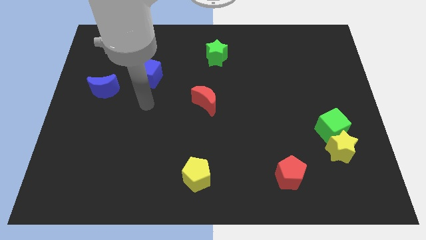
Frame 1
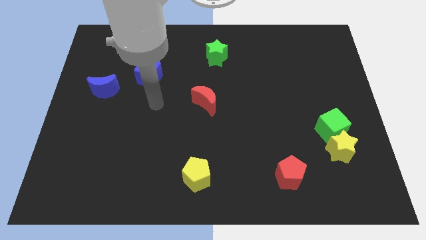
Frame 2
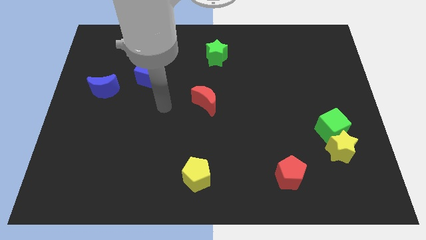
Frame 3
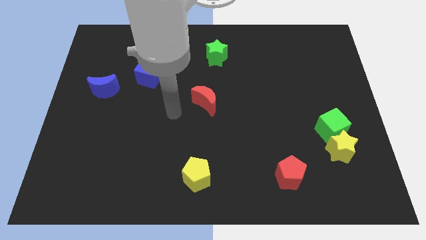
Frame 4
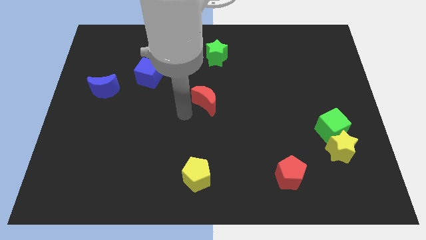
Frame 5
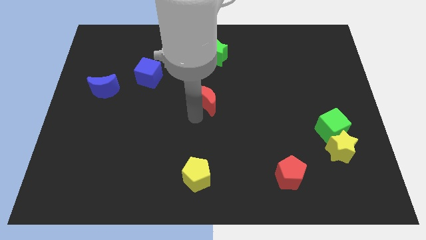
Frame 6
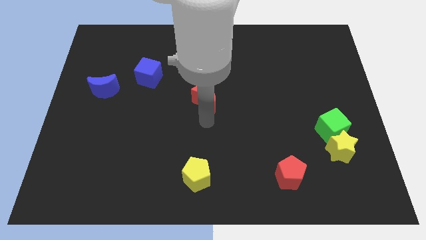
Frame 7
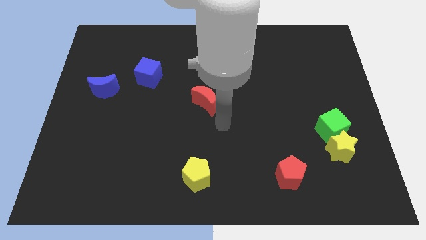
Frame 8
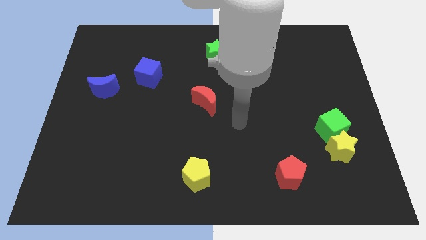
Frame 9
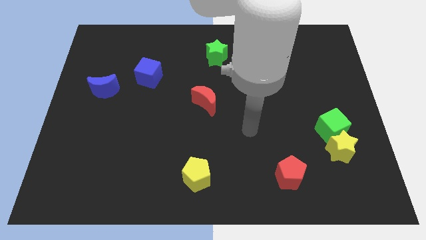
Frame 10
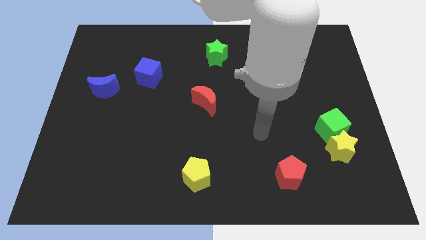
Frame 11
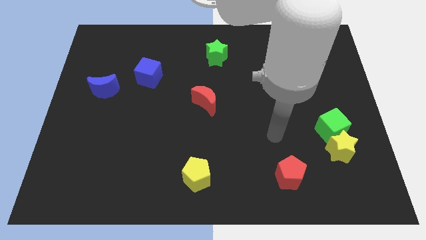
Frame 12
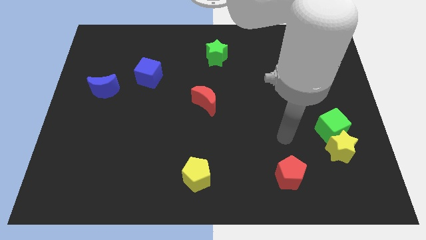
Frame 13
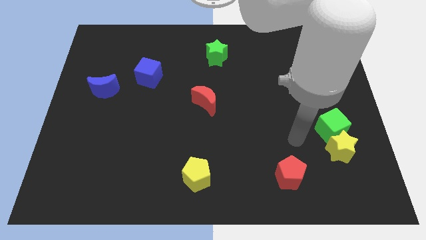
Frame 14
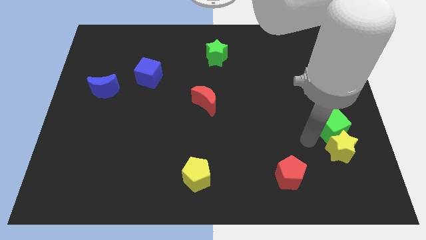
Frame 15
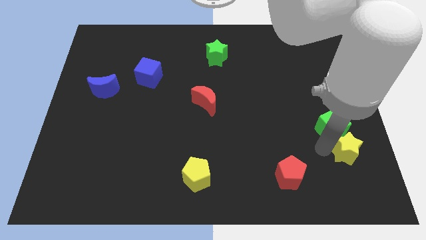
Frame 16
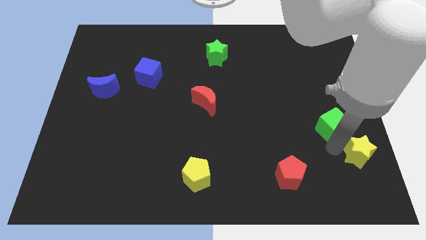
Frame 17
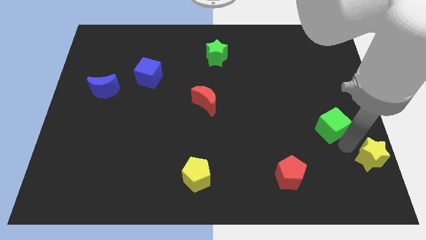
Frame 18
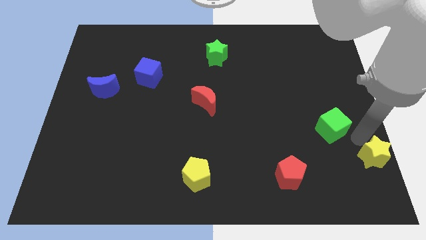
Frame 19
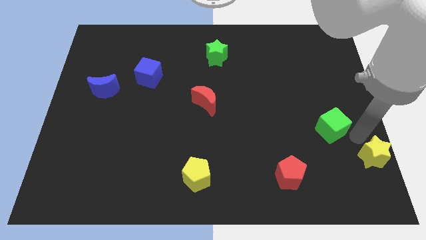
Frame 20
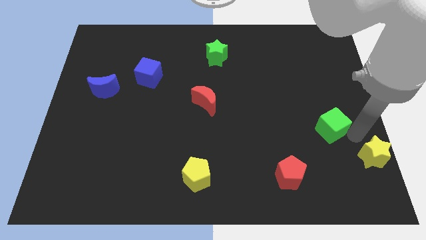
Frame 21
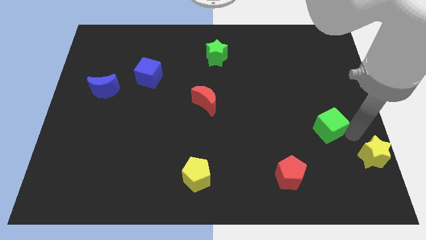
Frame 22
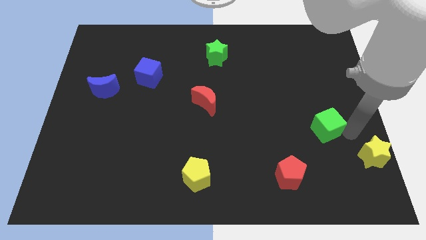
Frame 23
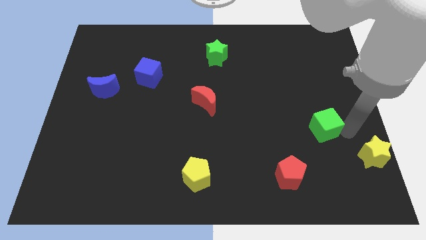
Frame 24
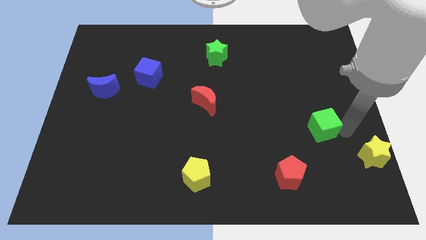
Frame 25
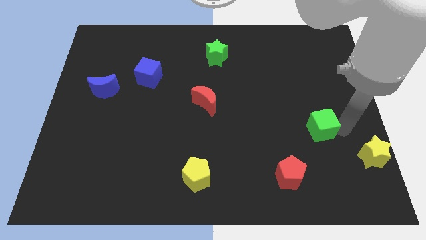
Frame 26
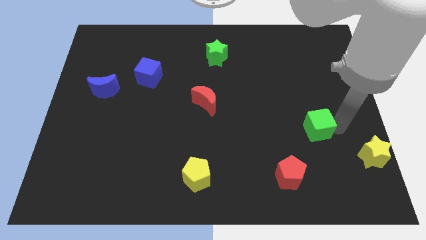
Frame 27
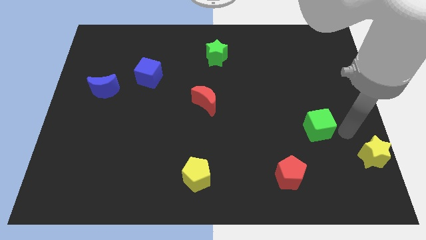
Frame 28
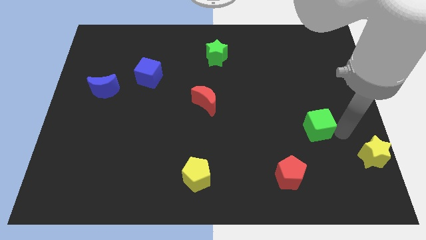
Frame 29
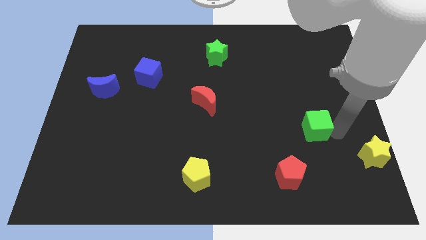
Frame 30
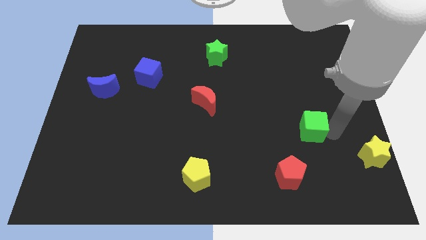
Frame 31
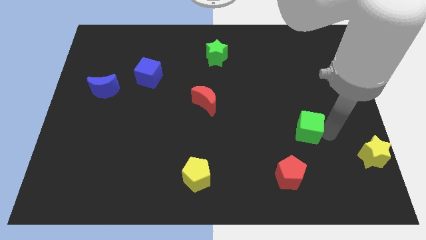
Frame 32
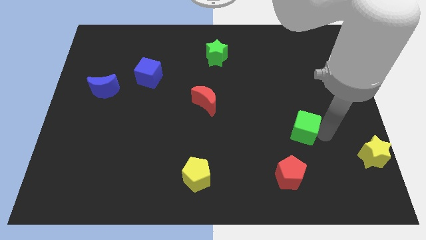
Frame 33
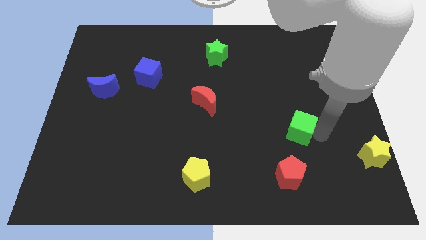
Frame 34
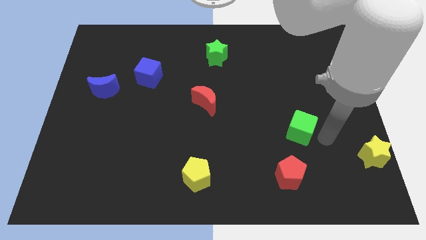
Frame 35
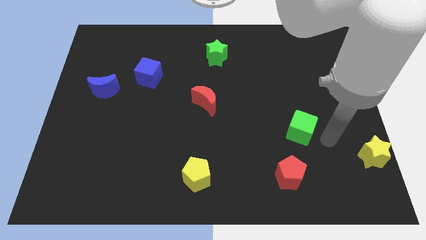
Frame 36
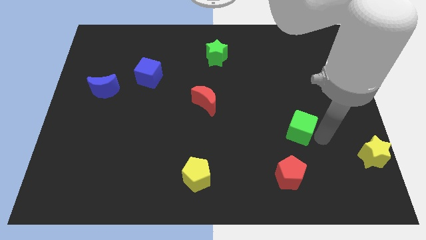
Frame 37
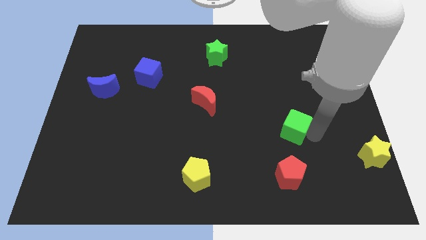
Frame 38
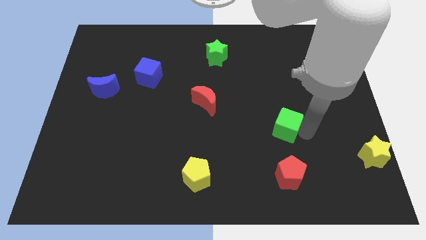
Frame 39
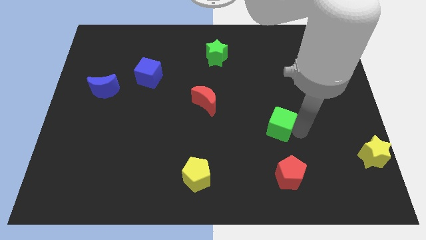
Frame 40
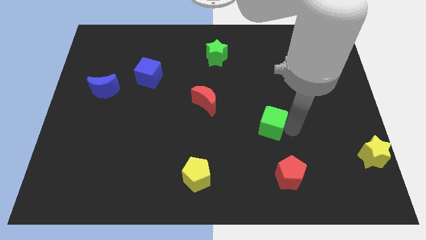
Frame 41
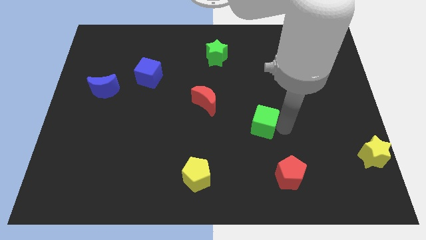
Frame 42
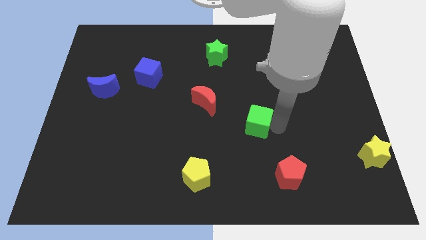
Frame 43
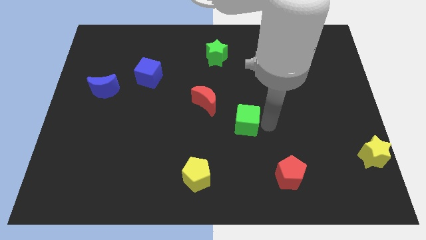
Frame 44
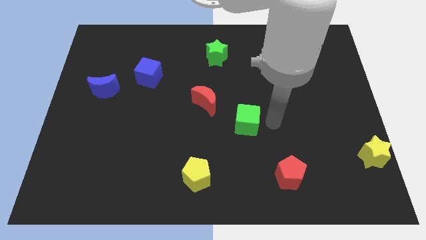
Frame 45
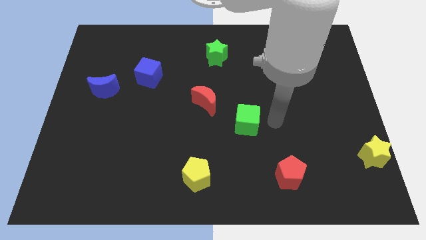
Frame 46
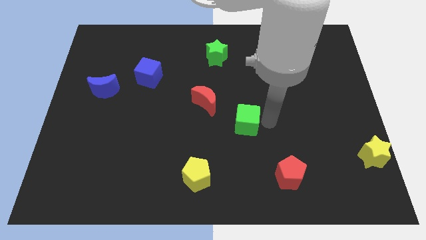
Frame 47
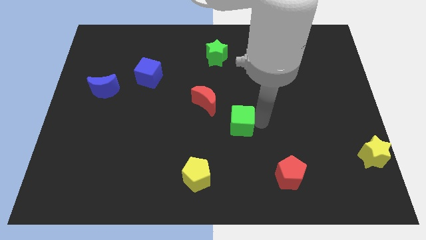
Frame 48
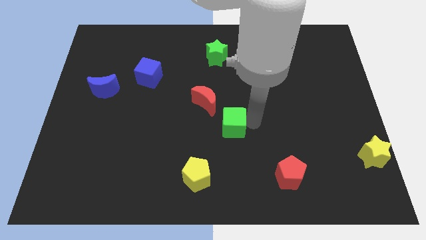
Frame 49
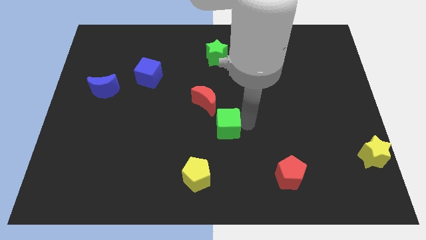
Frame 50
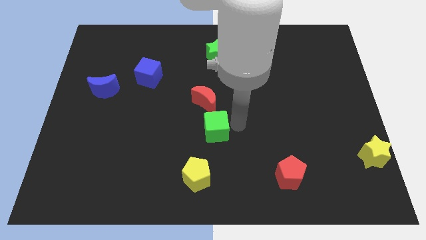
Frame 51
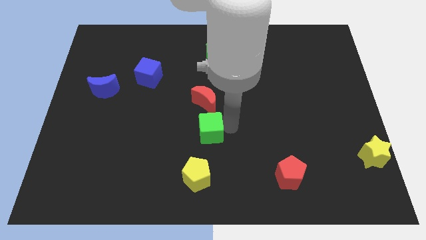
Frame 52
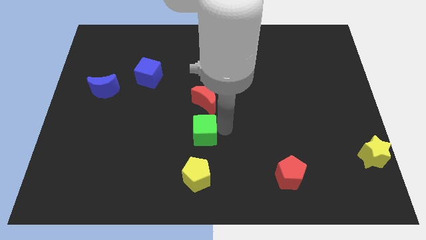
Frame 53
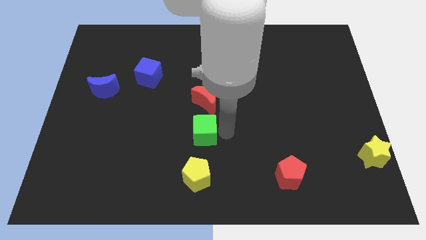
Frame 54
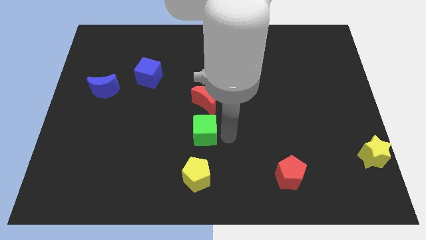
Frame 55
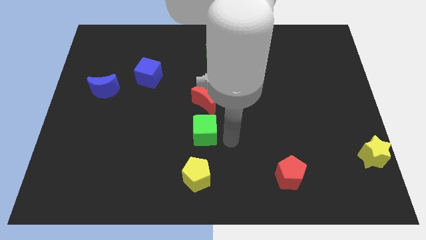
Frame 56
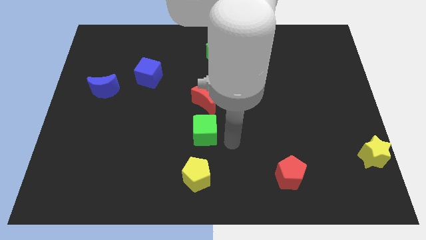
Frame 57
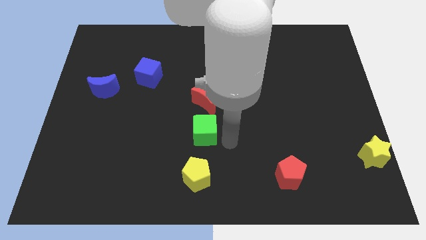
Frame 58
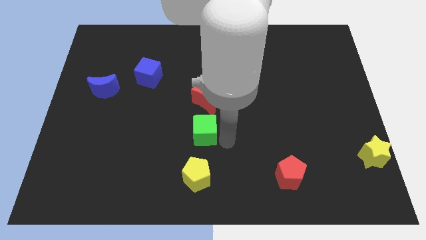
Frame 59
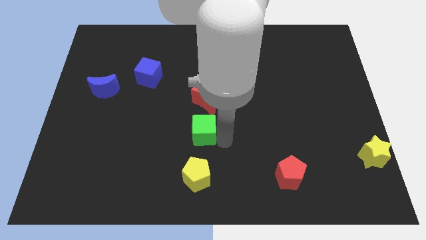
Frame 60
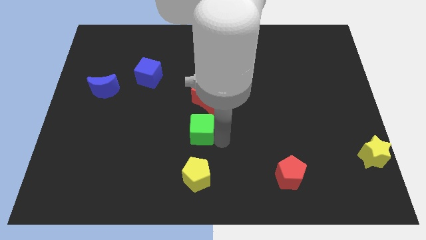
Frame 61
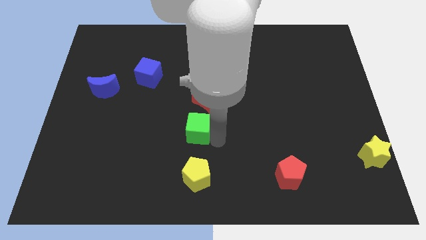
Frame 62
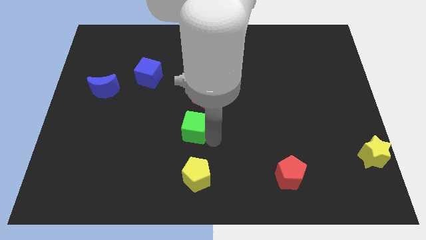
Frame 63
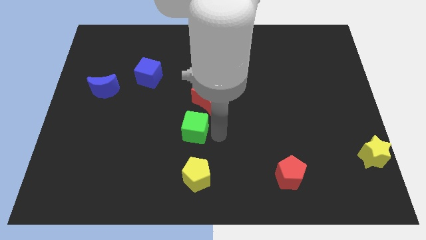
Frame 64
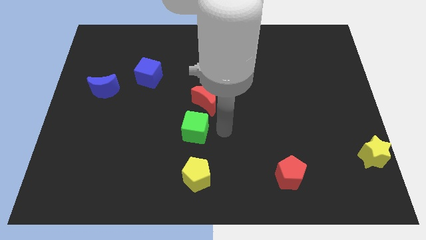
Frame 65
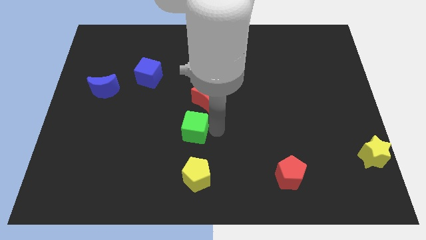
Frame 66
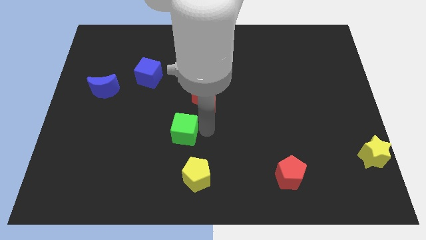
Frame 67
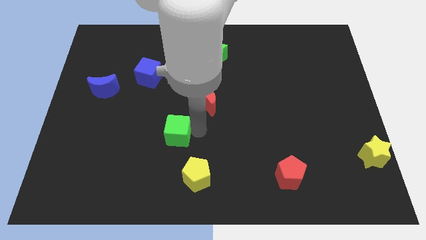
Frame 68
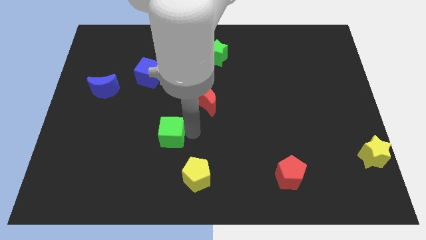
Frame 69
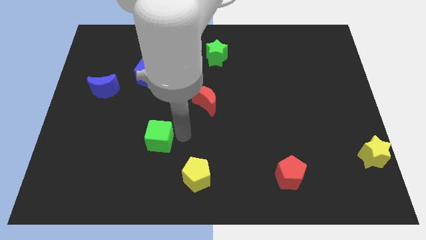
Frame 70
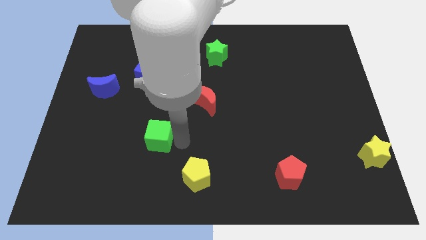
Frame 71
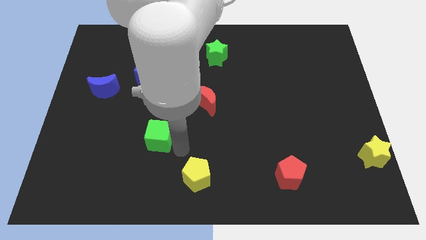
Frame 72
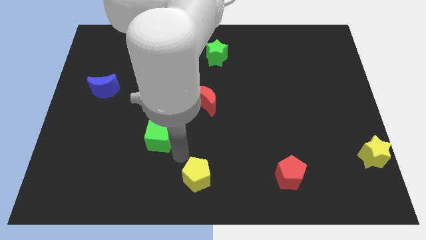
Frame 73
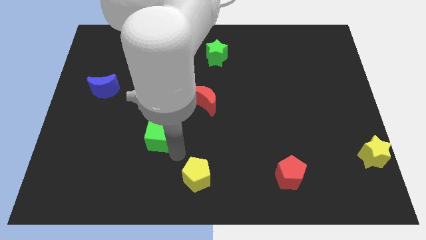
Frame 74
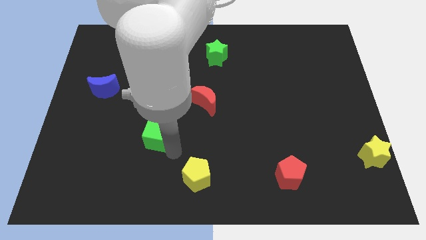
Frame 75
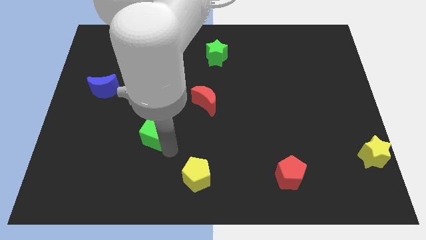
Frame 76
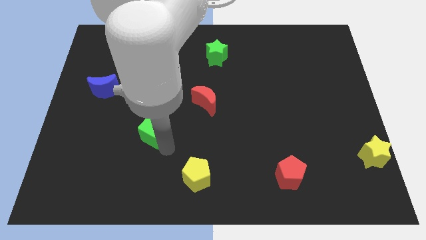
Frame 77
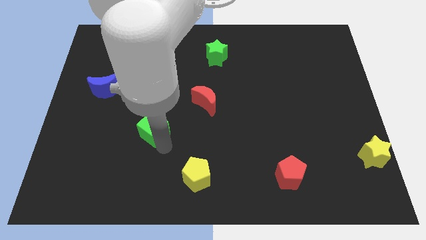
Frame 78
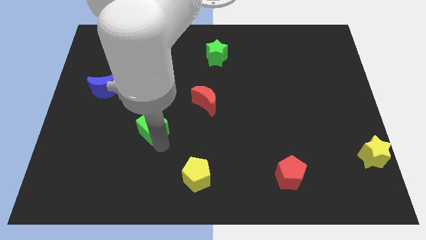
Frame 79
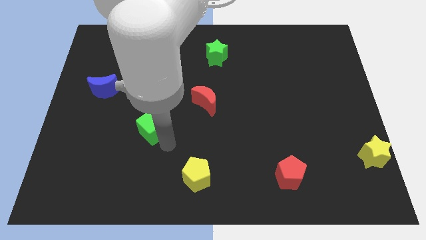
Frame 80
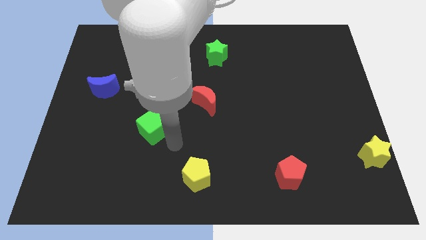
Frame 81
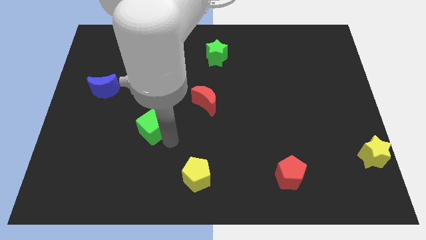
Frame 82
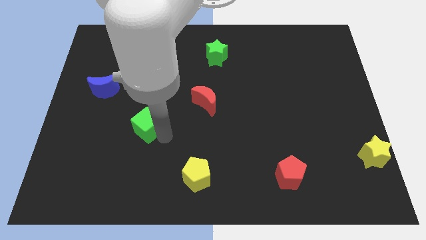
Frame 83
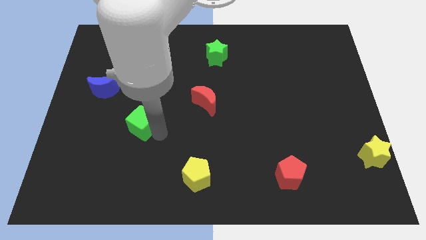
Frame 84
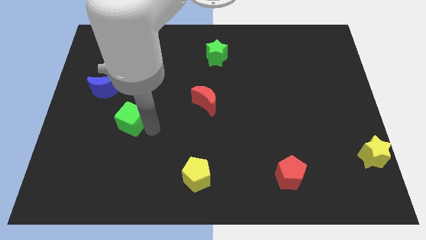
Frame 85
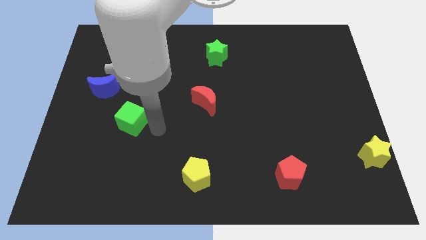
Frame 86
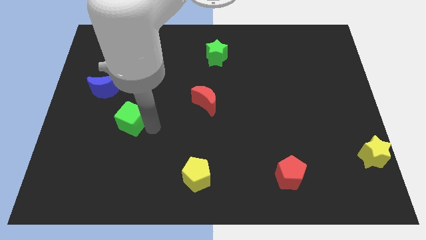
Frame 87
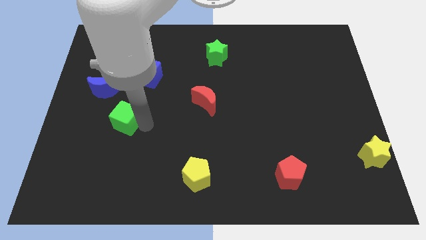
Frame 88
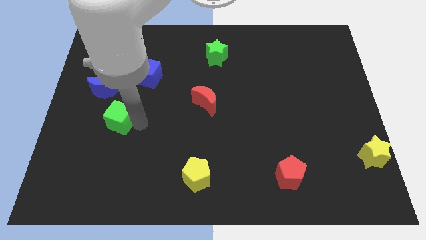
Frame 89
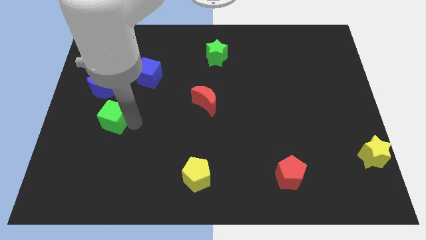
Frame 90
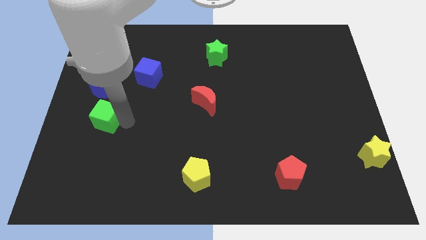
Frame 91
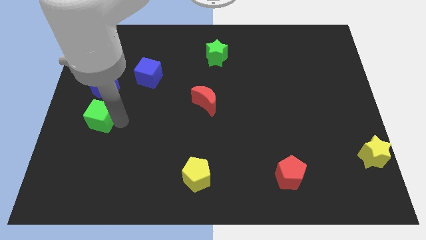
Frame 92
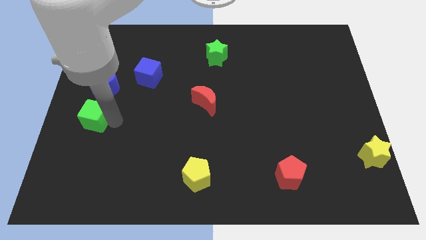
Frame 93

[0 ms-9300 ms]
move the green cube to the center left
